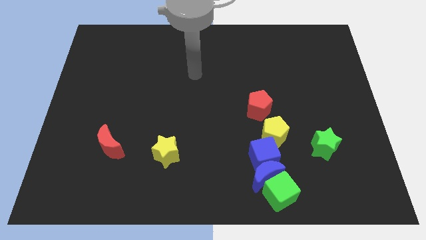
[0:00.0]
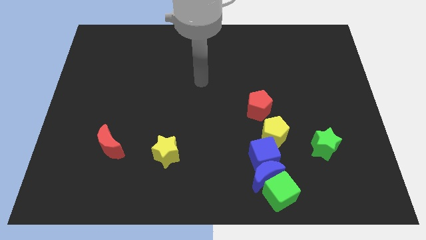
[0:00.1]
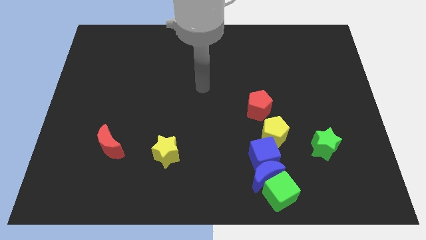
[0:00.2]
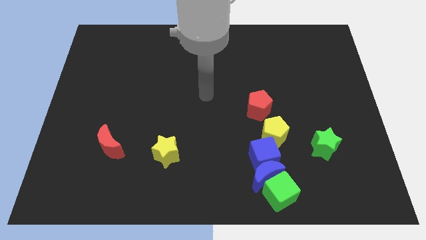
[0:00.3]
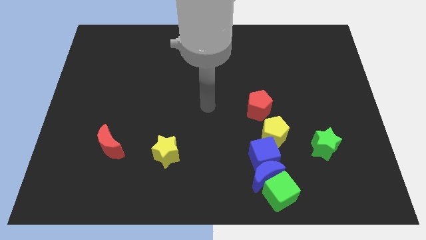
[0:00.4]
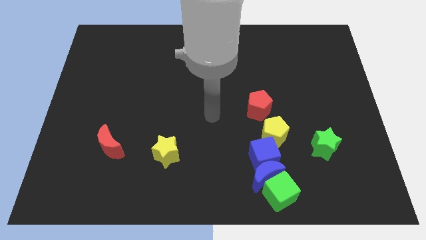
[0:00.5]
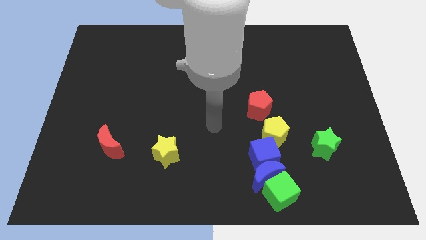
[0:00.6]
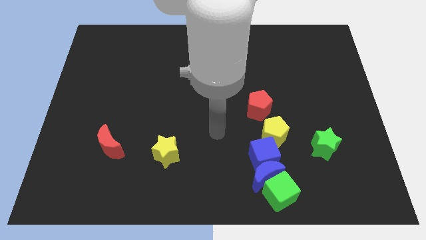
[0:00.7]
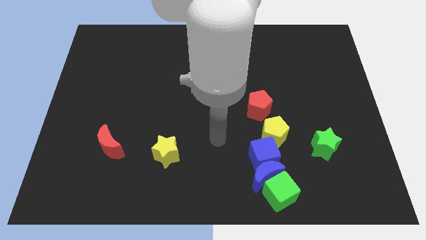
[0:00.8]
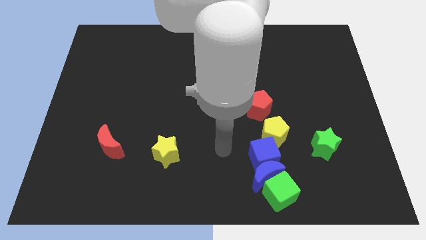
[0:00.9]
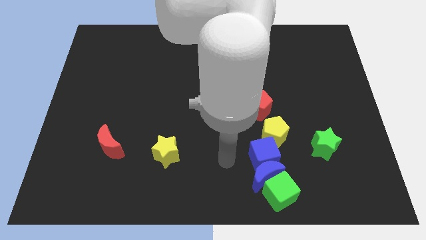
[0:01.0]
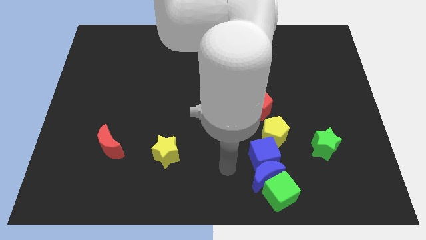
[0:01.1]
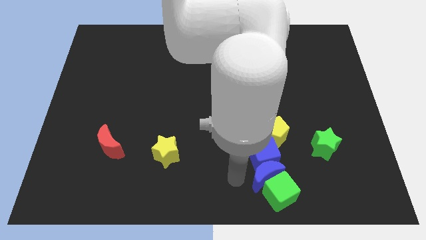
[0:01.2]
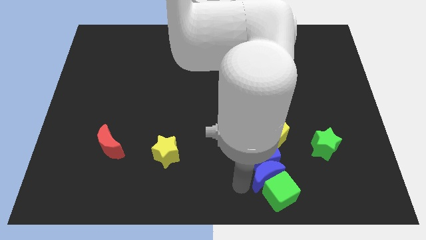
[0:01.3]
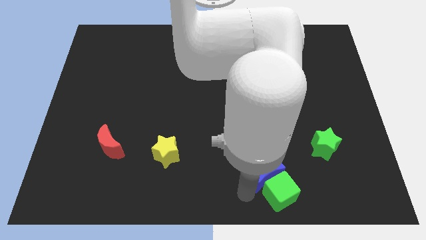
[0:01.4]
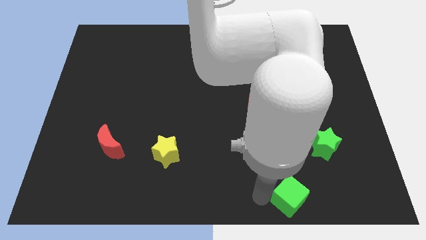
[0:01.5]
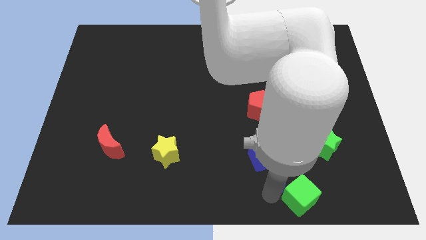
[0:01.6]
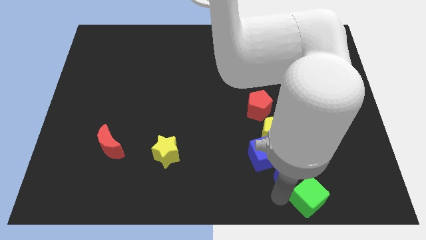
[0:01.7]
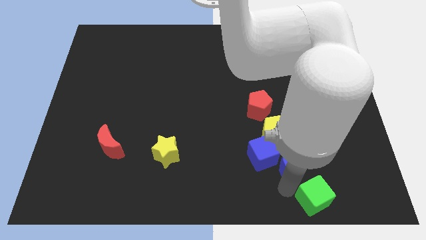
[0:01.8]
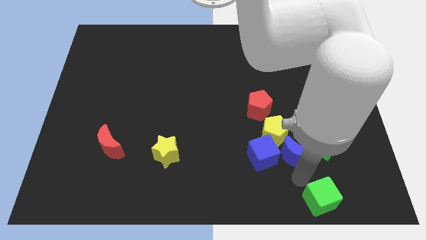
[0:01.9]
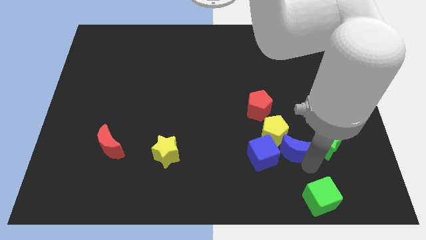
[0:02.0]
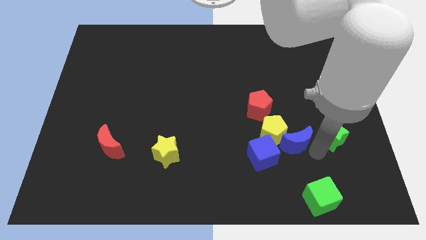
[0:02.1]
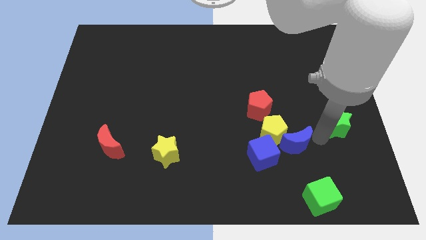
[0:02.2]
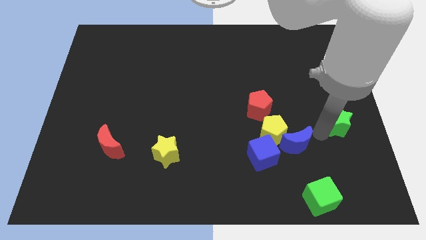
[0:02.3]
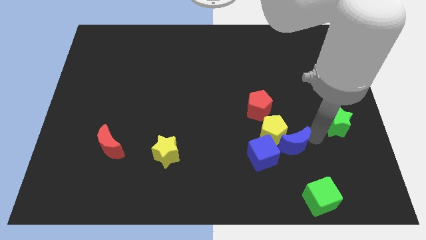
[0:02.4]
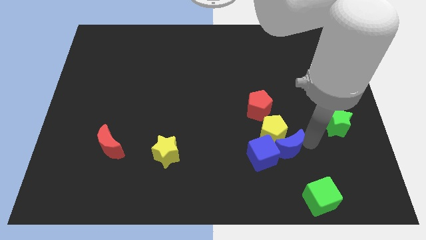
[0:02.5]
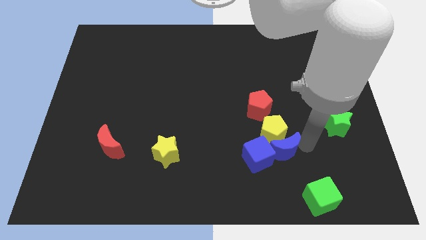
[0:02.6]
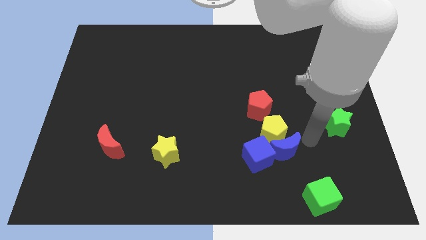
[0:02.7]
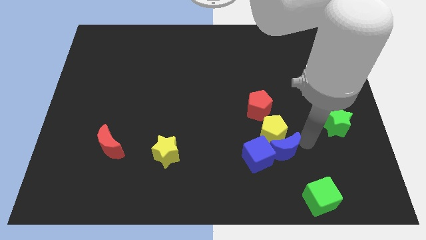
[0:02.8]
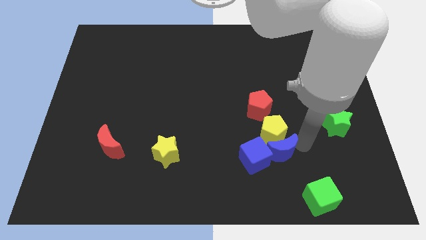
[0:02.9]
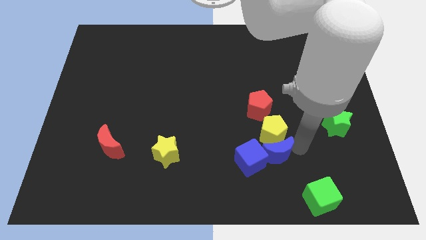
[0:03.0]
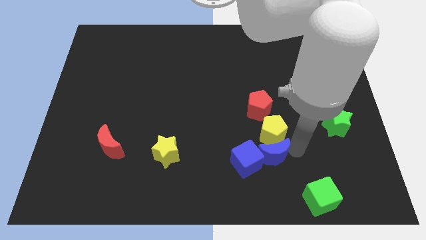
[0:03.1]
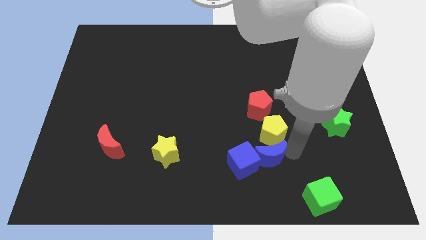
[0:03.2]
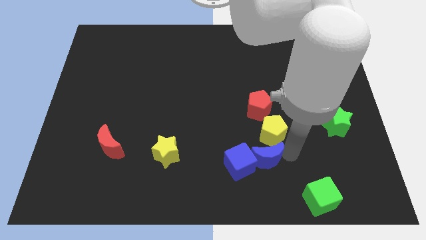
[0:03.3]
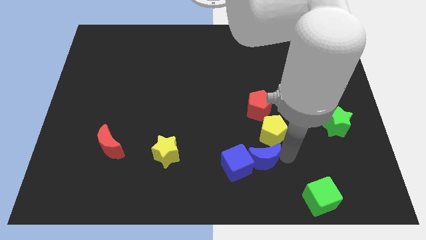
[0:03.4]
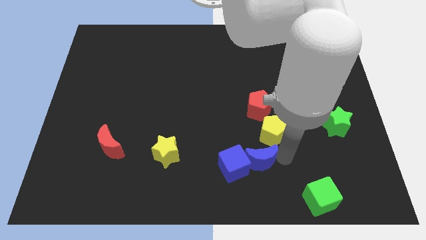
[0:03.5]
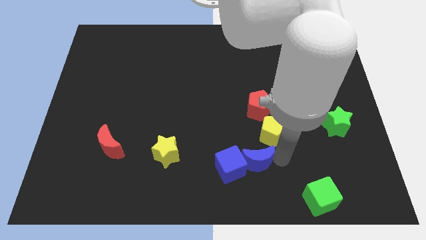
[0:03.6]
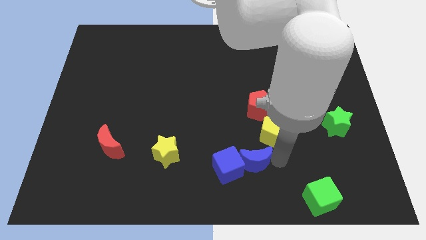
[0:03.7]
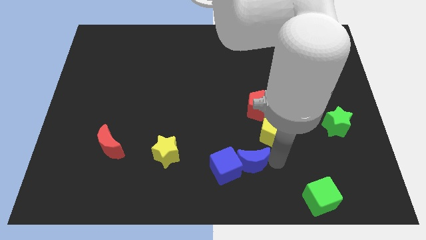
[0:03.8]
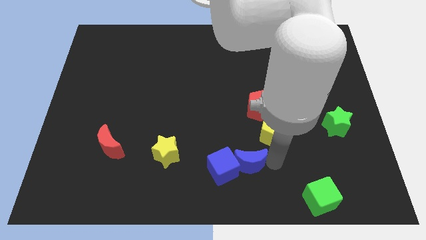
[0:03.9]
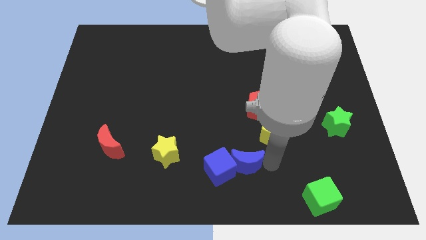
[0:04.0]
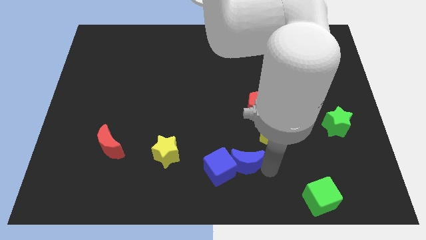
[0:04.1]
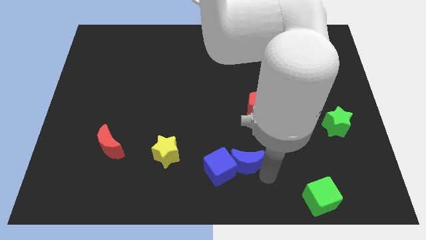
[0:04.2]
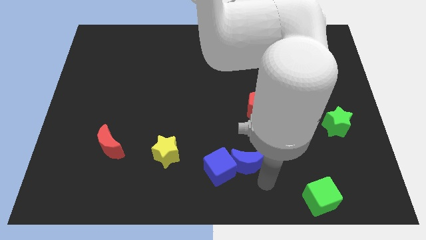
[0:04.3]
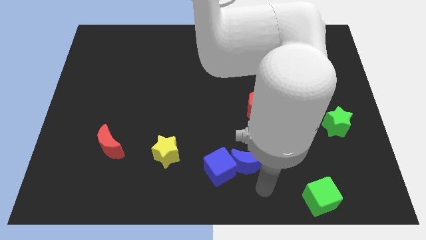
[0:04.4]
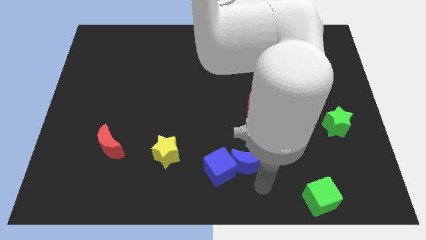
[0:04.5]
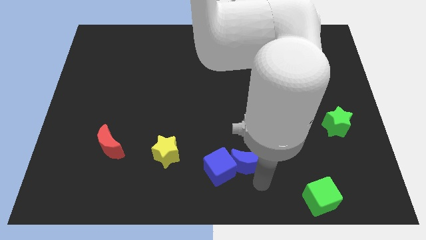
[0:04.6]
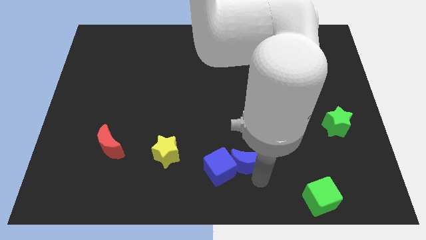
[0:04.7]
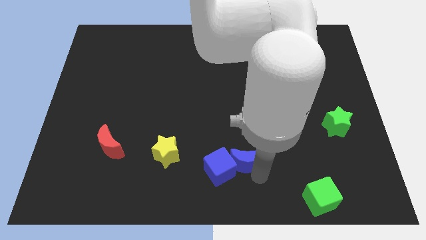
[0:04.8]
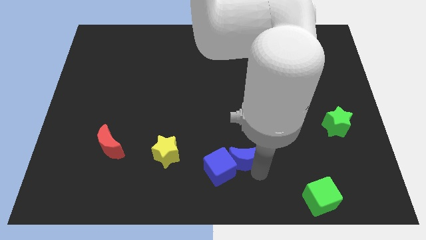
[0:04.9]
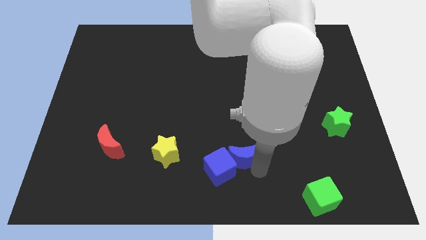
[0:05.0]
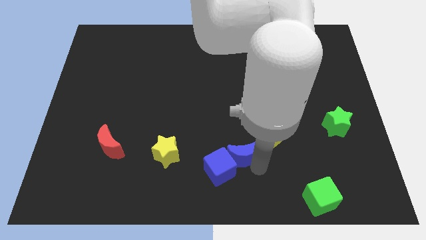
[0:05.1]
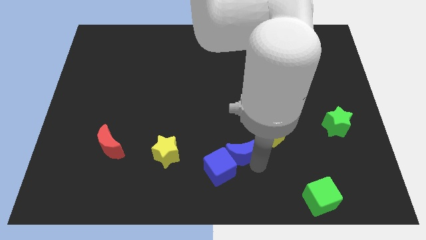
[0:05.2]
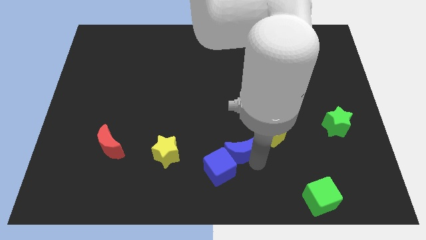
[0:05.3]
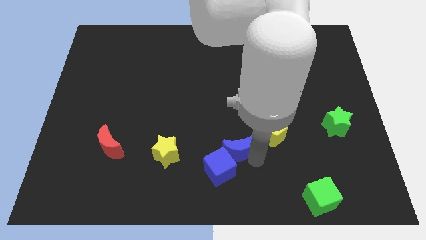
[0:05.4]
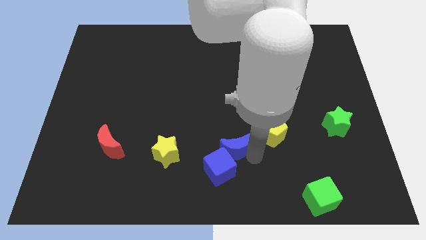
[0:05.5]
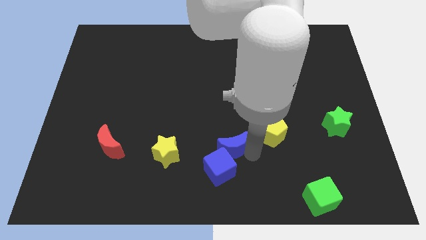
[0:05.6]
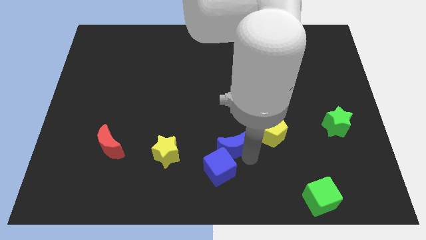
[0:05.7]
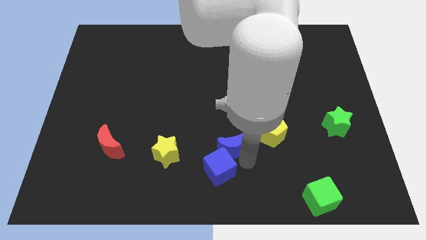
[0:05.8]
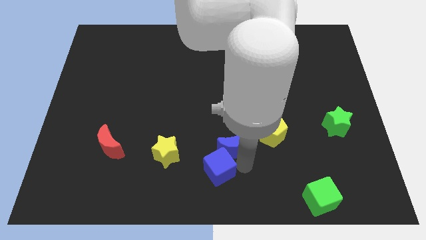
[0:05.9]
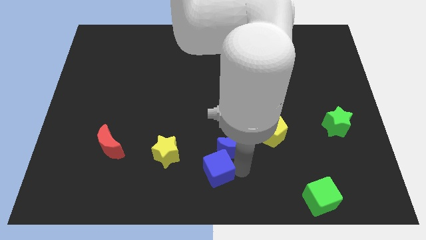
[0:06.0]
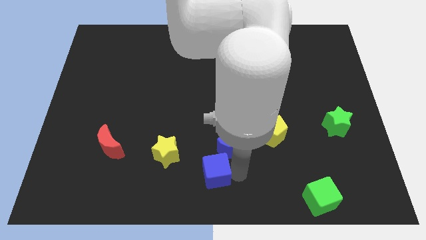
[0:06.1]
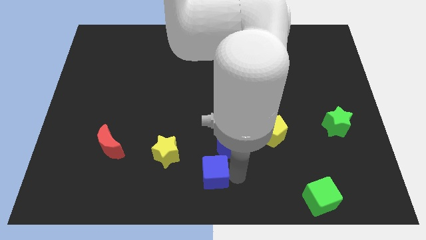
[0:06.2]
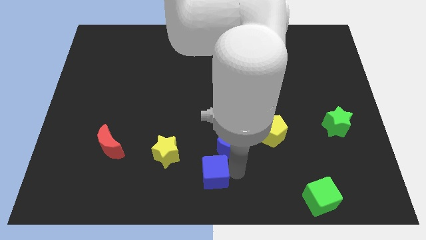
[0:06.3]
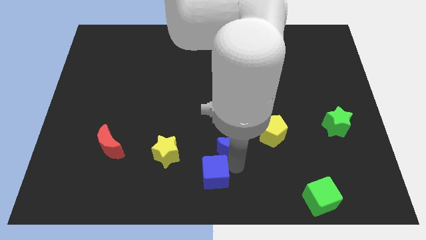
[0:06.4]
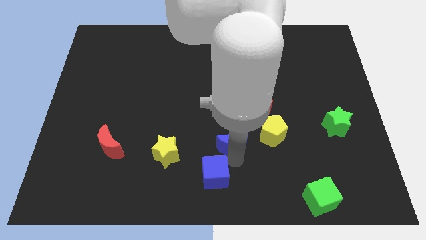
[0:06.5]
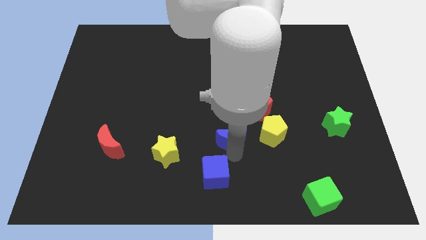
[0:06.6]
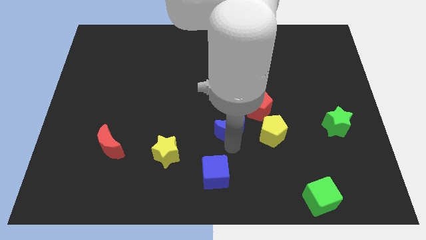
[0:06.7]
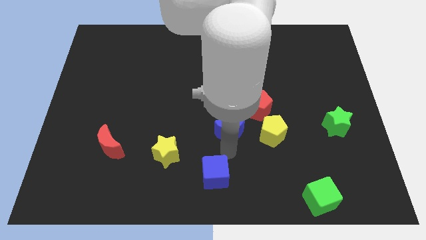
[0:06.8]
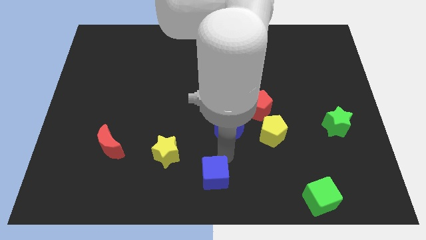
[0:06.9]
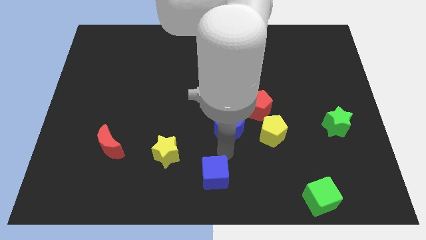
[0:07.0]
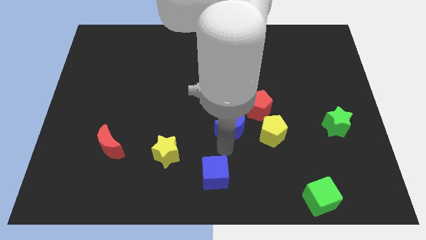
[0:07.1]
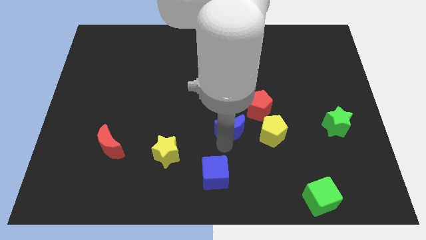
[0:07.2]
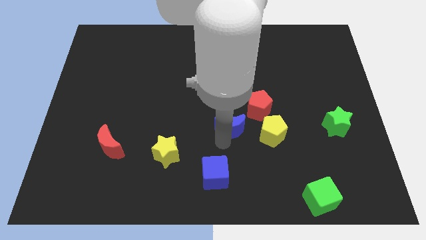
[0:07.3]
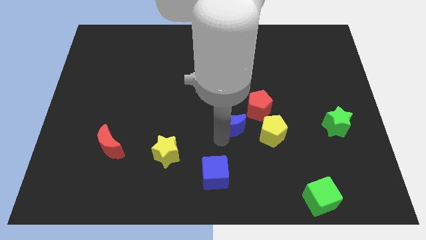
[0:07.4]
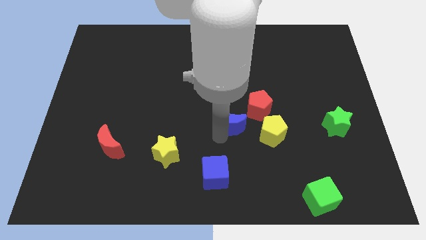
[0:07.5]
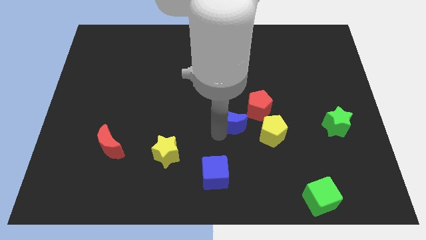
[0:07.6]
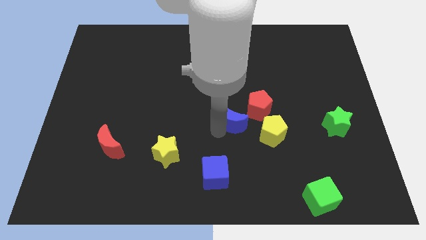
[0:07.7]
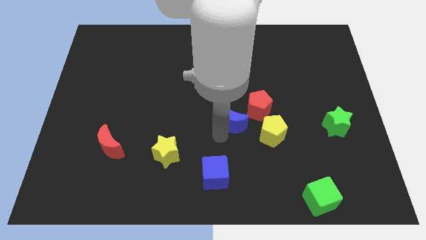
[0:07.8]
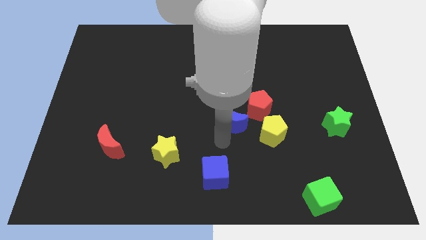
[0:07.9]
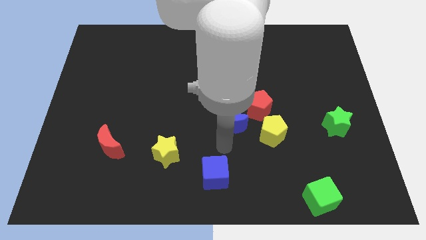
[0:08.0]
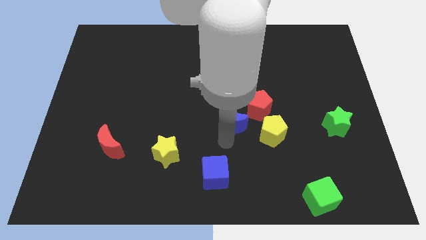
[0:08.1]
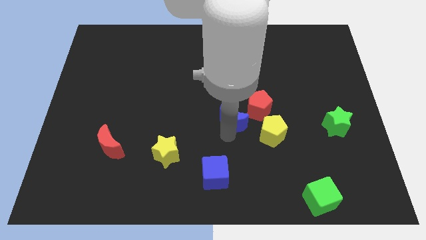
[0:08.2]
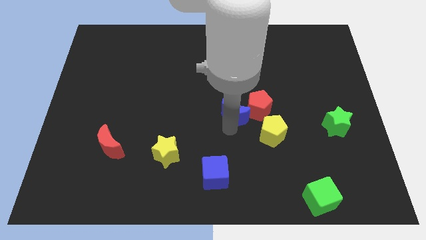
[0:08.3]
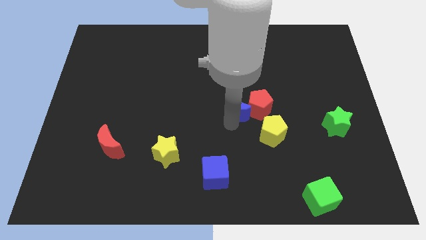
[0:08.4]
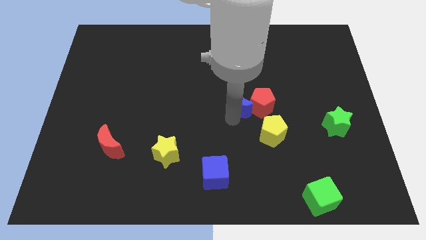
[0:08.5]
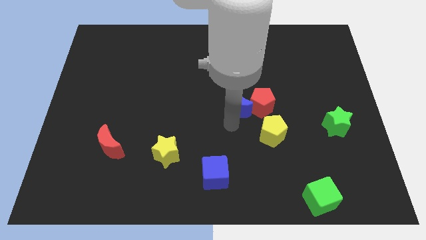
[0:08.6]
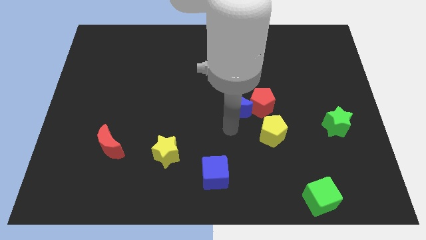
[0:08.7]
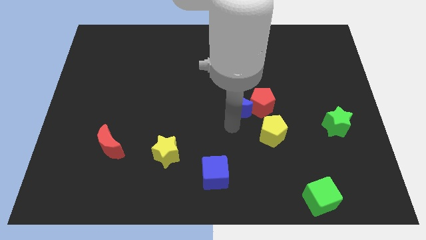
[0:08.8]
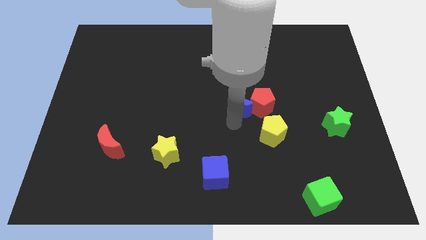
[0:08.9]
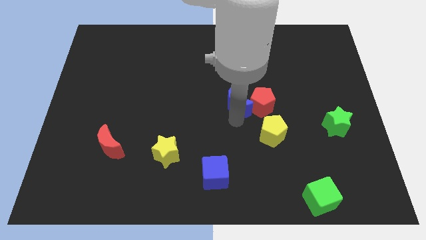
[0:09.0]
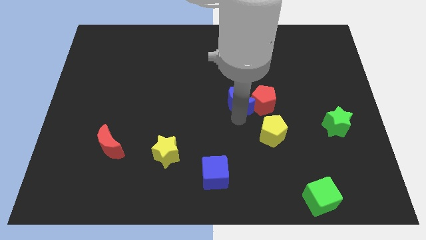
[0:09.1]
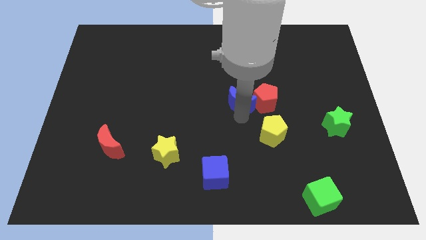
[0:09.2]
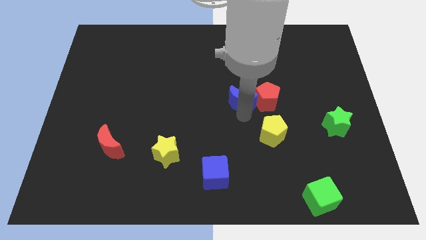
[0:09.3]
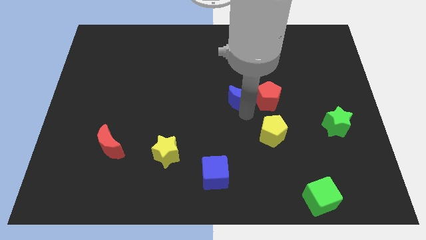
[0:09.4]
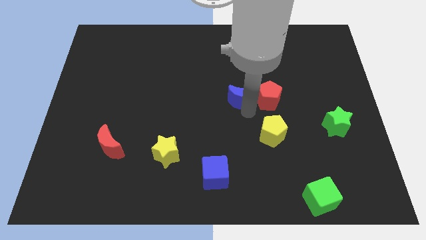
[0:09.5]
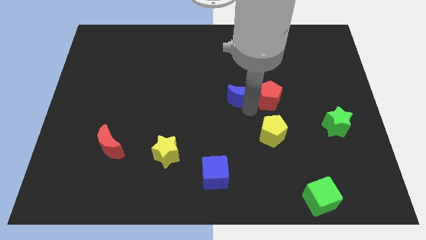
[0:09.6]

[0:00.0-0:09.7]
push the blue moon upwards
